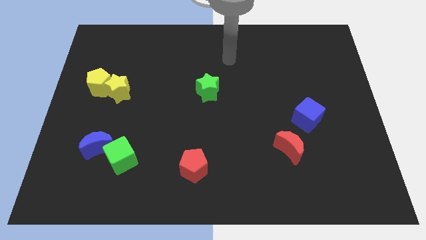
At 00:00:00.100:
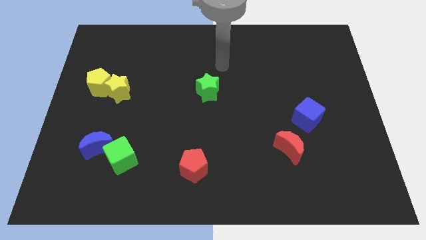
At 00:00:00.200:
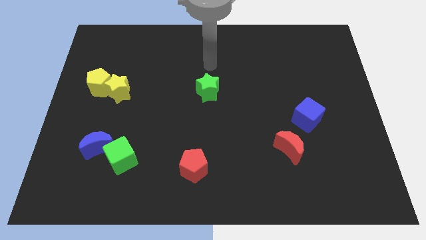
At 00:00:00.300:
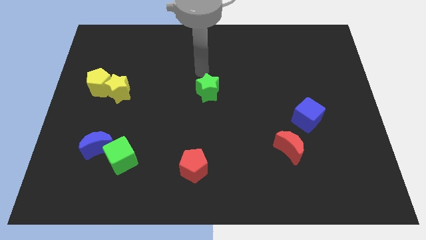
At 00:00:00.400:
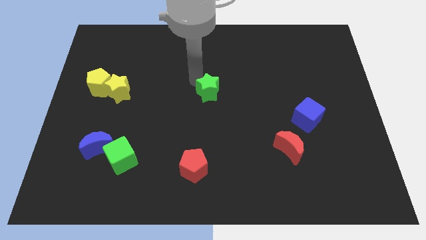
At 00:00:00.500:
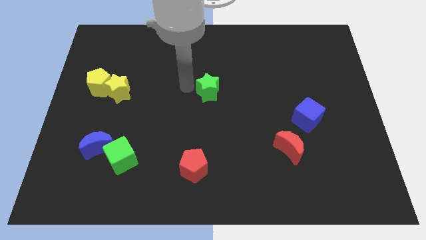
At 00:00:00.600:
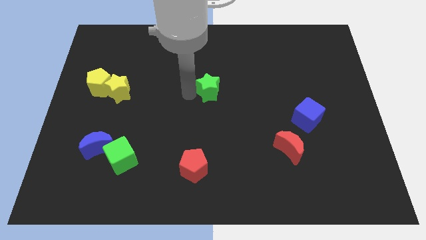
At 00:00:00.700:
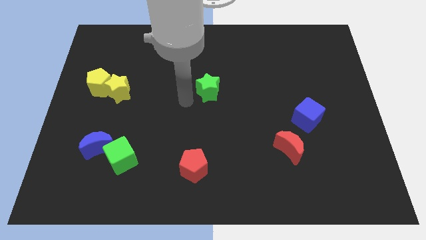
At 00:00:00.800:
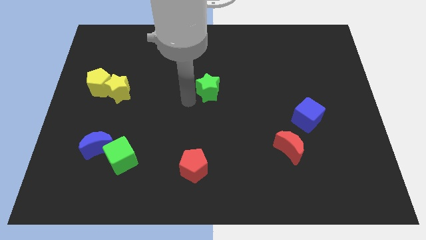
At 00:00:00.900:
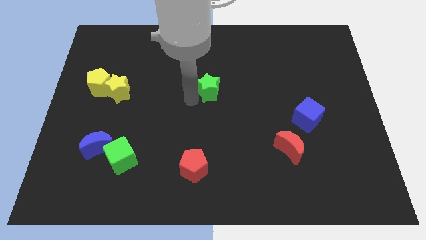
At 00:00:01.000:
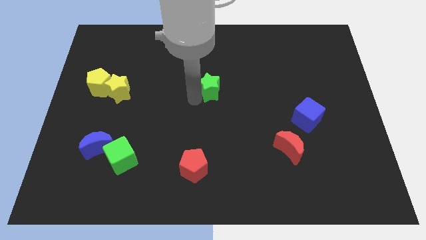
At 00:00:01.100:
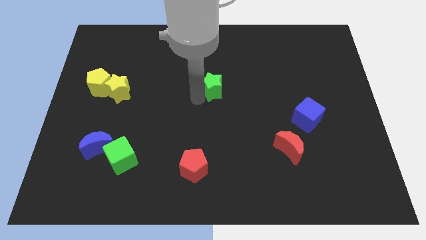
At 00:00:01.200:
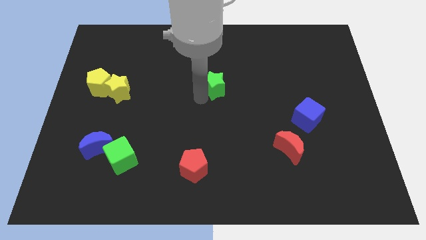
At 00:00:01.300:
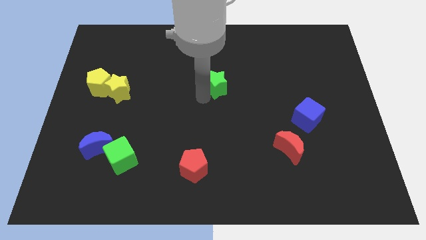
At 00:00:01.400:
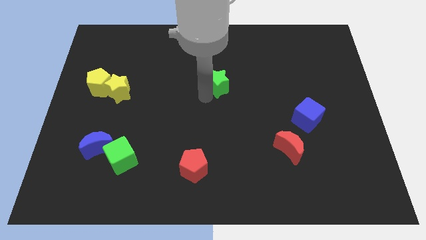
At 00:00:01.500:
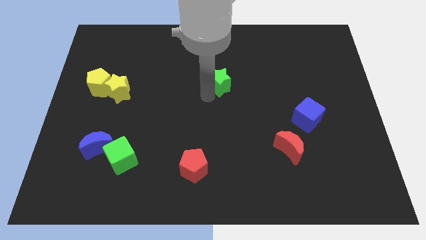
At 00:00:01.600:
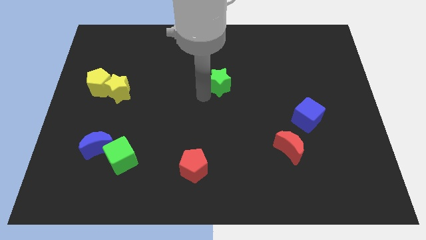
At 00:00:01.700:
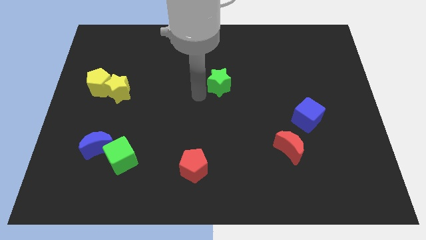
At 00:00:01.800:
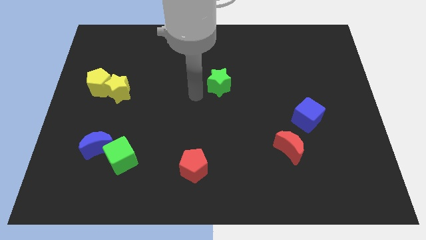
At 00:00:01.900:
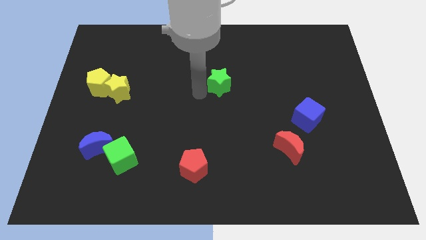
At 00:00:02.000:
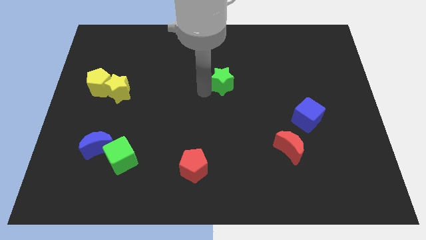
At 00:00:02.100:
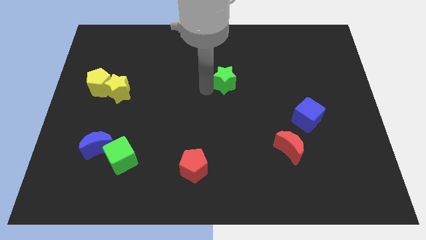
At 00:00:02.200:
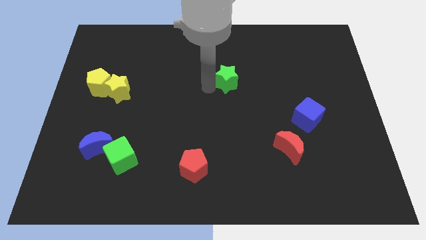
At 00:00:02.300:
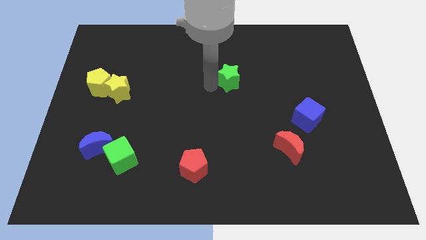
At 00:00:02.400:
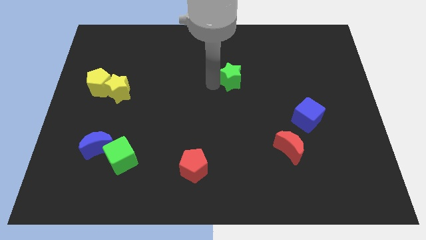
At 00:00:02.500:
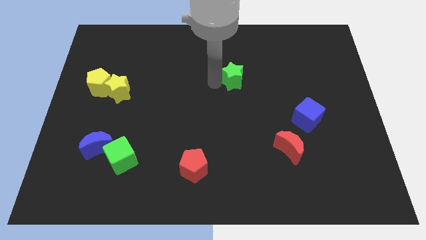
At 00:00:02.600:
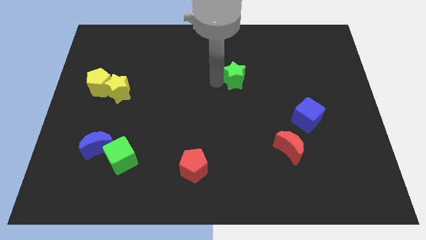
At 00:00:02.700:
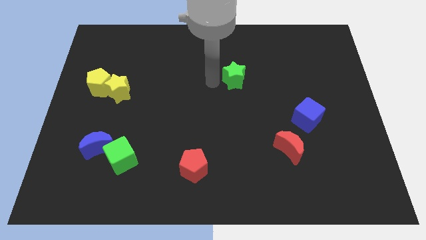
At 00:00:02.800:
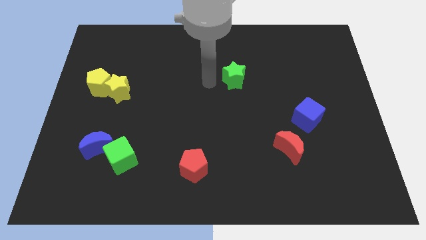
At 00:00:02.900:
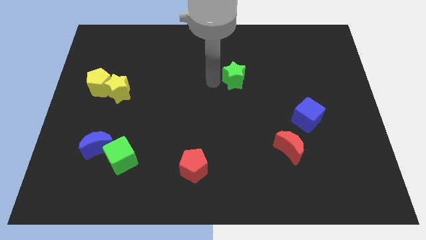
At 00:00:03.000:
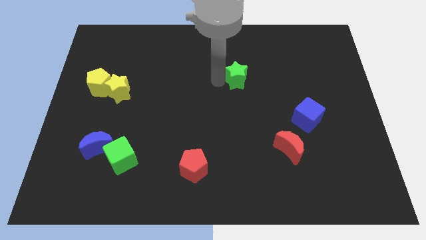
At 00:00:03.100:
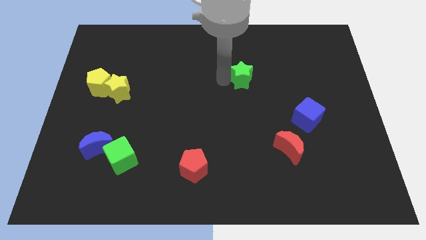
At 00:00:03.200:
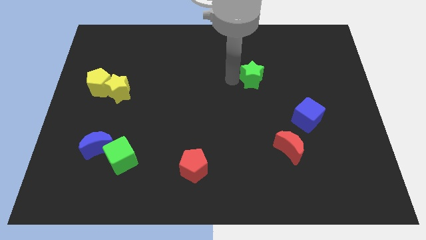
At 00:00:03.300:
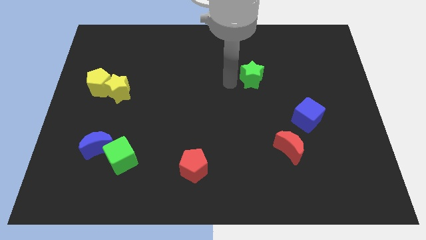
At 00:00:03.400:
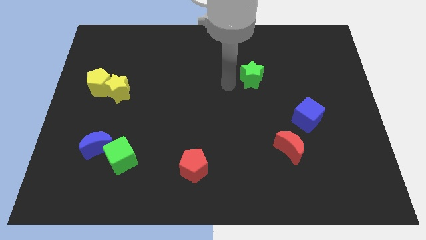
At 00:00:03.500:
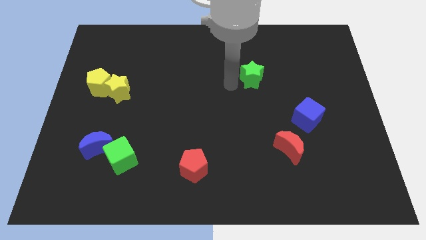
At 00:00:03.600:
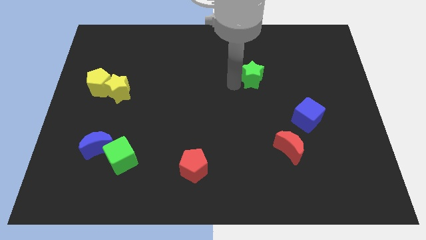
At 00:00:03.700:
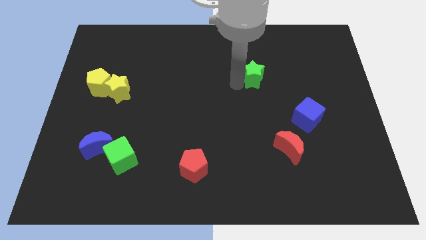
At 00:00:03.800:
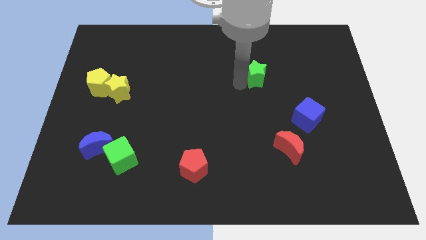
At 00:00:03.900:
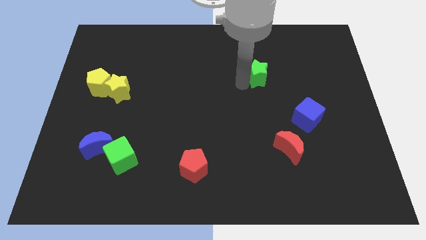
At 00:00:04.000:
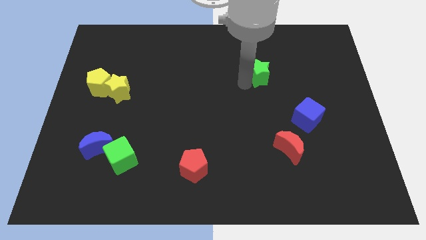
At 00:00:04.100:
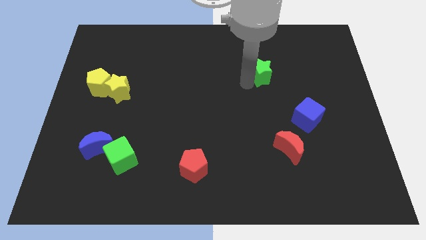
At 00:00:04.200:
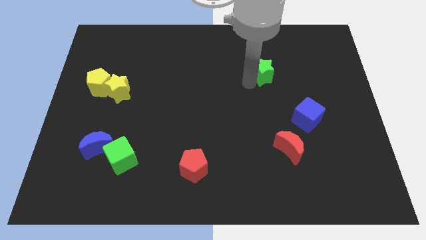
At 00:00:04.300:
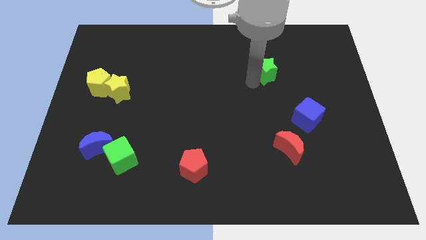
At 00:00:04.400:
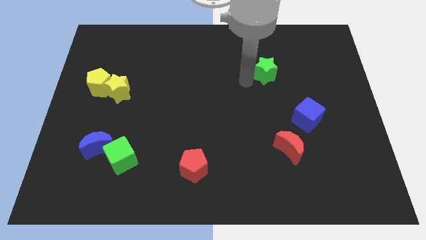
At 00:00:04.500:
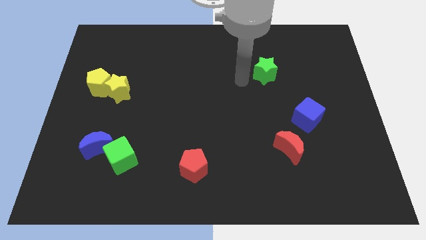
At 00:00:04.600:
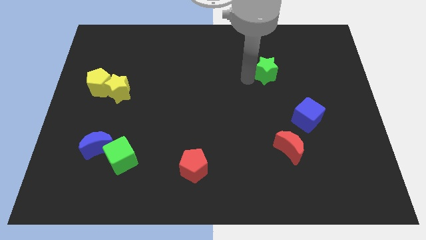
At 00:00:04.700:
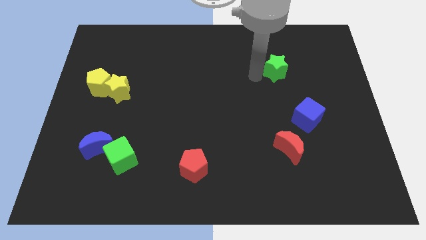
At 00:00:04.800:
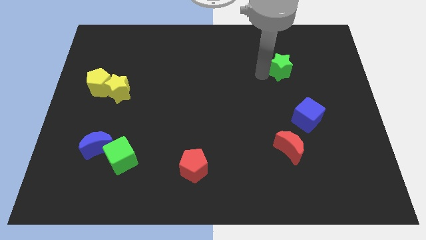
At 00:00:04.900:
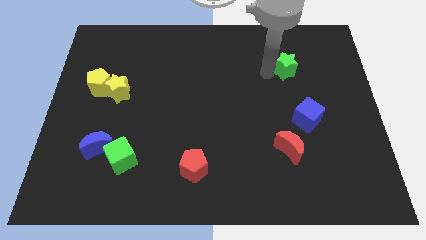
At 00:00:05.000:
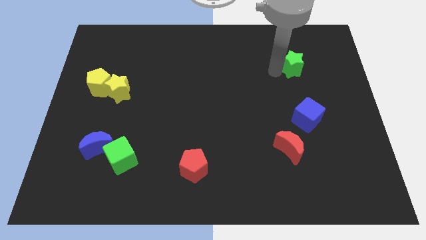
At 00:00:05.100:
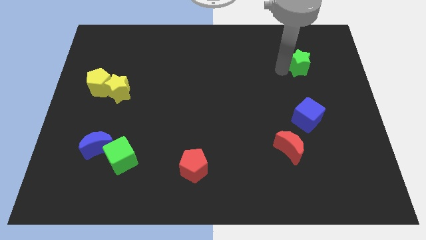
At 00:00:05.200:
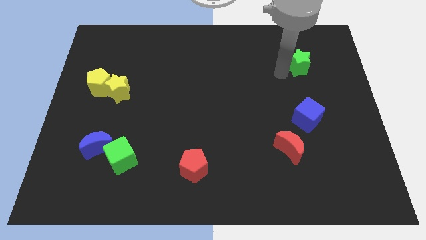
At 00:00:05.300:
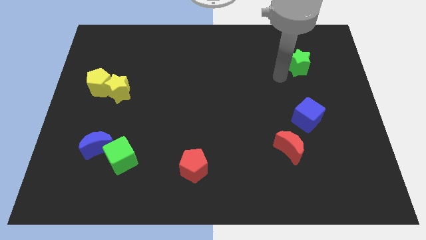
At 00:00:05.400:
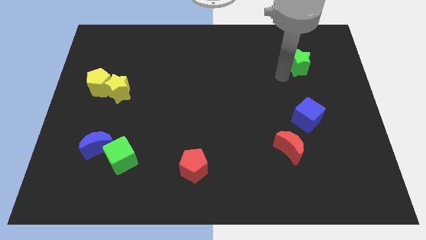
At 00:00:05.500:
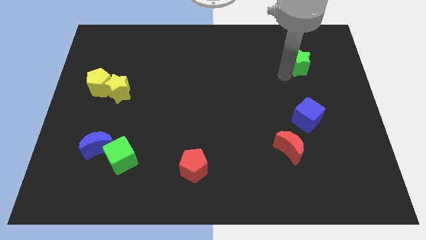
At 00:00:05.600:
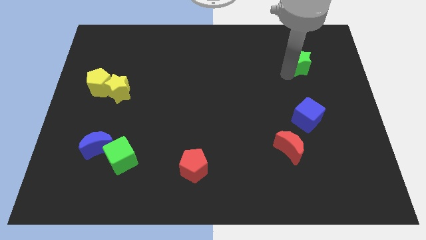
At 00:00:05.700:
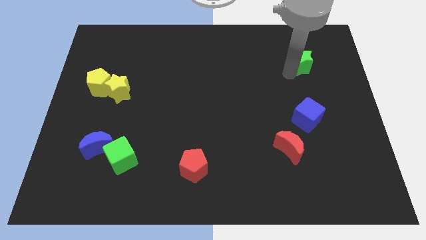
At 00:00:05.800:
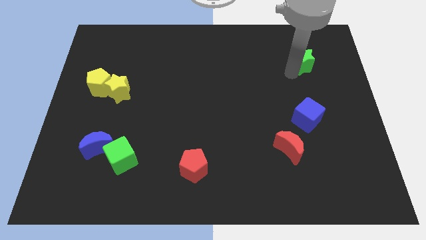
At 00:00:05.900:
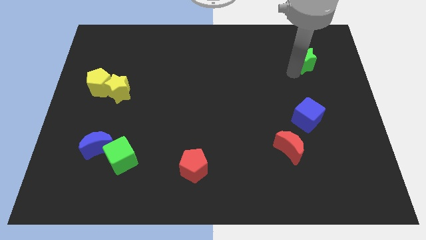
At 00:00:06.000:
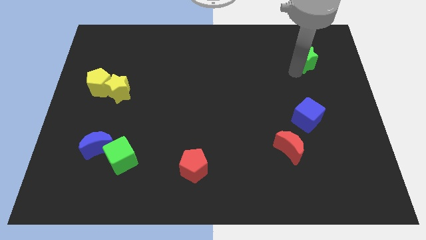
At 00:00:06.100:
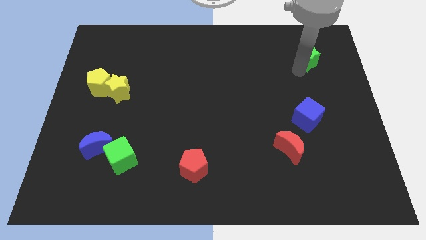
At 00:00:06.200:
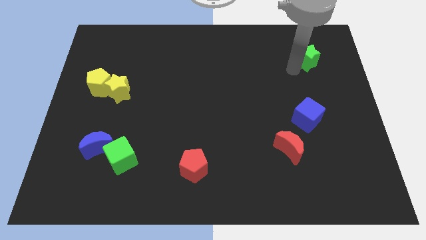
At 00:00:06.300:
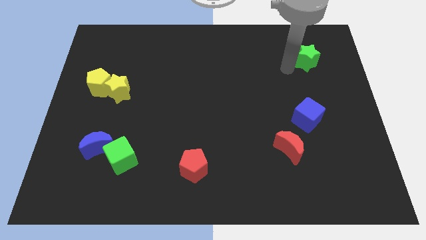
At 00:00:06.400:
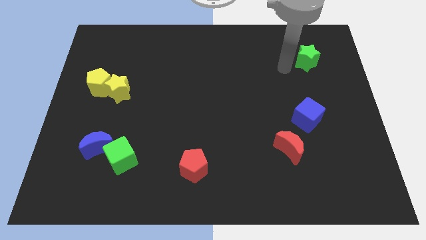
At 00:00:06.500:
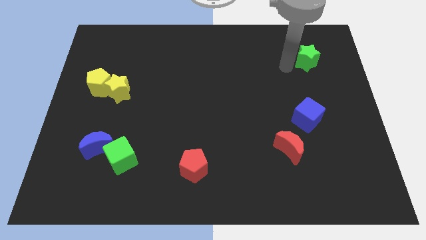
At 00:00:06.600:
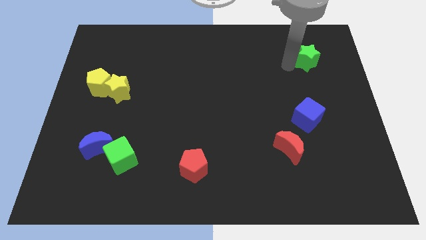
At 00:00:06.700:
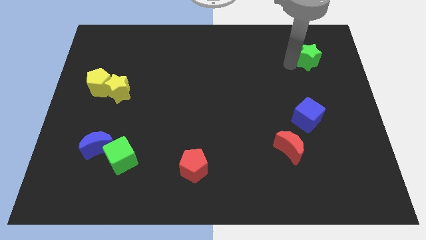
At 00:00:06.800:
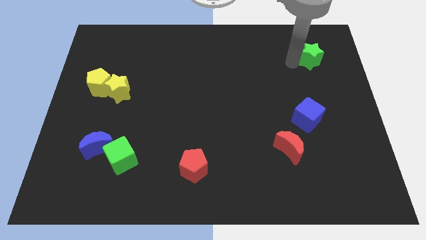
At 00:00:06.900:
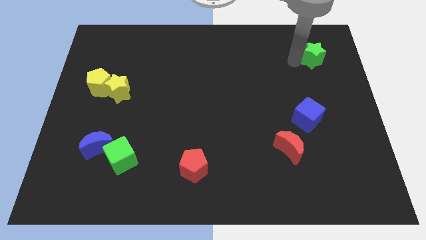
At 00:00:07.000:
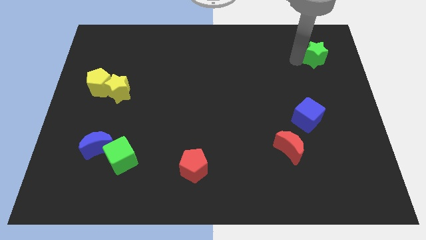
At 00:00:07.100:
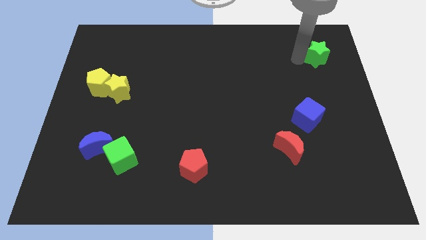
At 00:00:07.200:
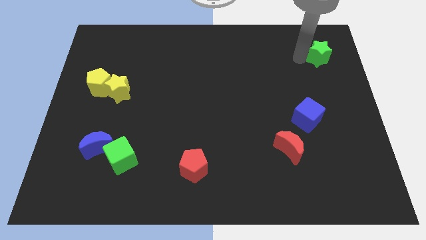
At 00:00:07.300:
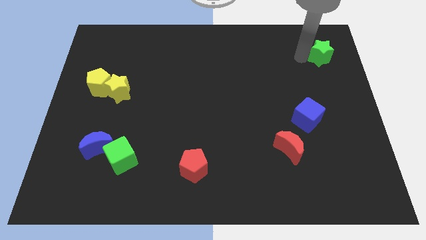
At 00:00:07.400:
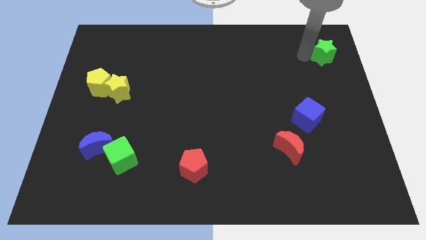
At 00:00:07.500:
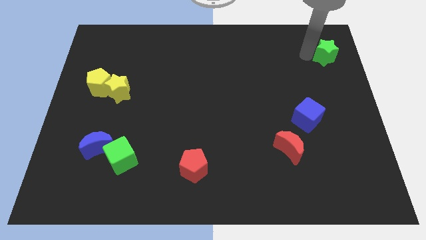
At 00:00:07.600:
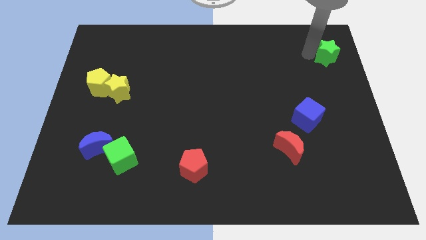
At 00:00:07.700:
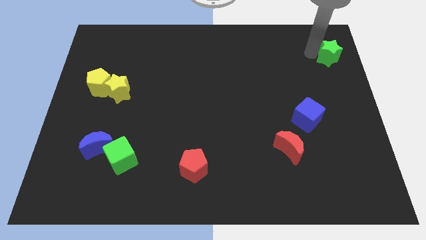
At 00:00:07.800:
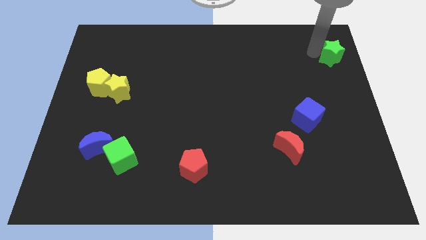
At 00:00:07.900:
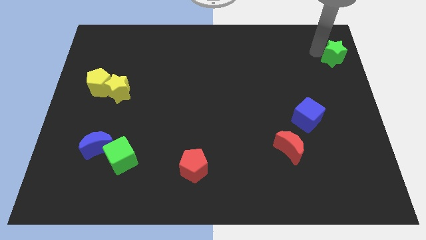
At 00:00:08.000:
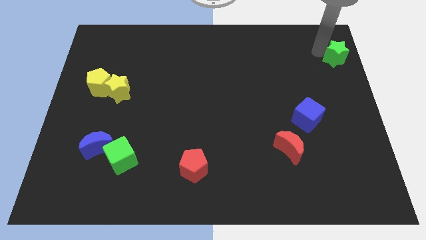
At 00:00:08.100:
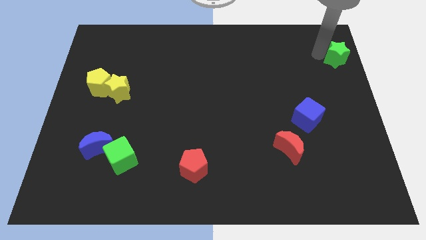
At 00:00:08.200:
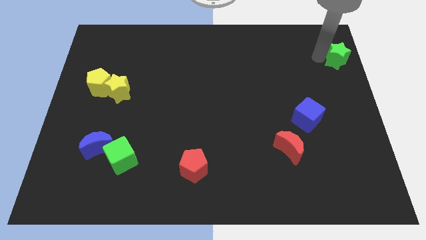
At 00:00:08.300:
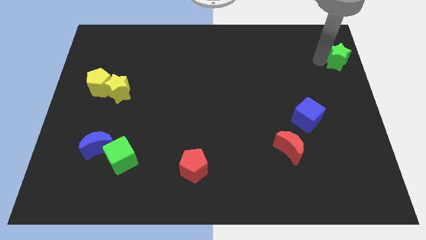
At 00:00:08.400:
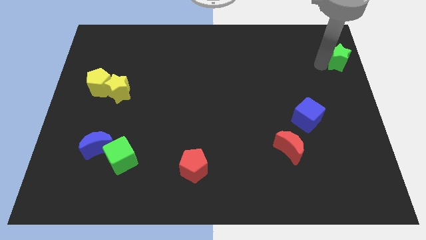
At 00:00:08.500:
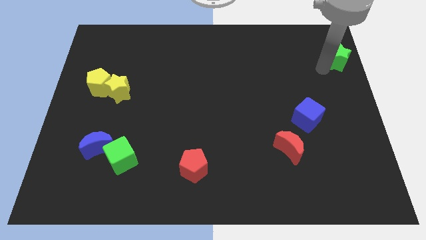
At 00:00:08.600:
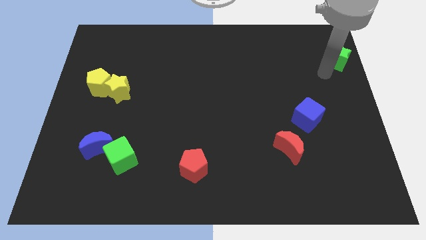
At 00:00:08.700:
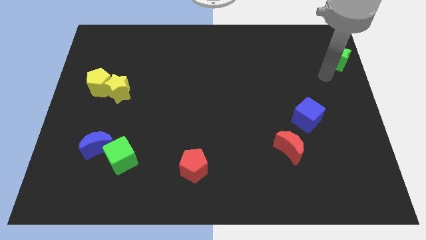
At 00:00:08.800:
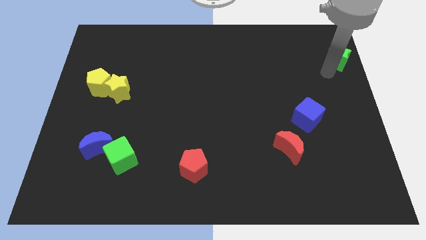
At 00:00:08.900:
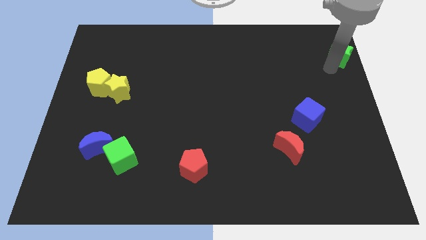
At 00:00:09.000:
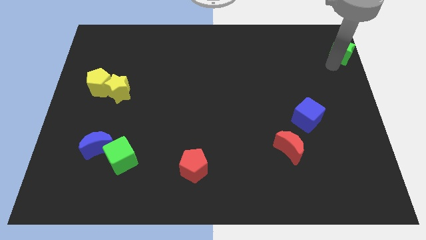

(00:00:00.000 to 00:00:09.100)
put the green star to the top right of the board
